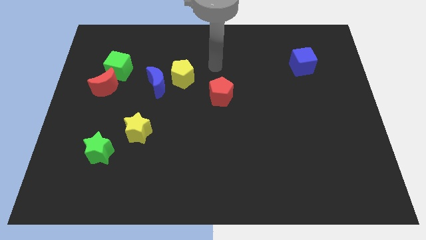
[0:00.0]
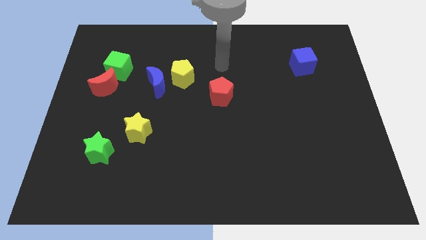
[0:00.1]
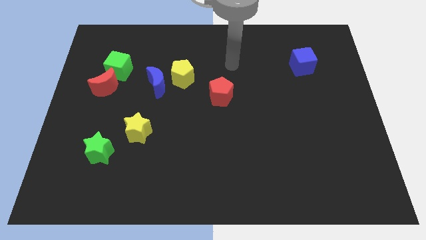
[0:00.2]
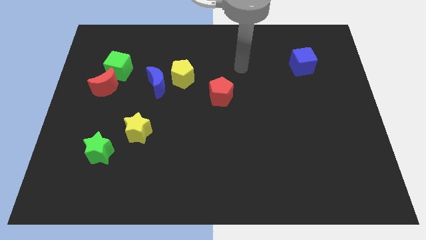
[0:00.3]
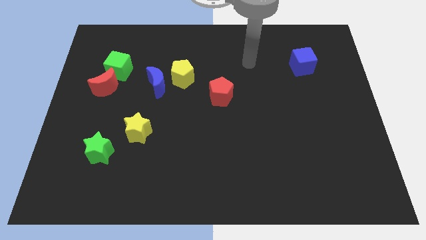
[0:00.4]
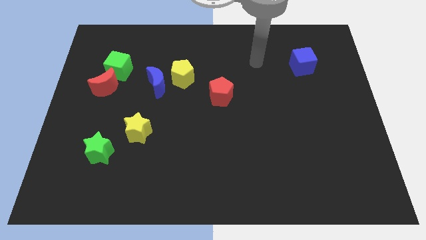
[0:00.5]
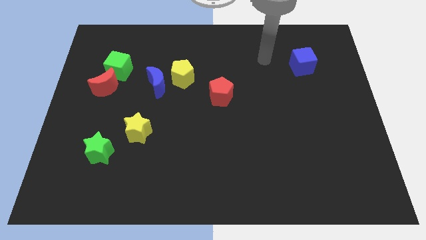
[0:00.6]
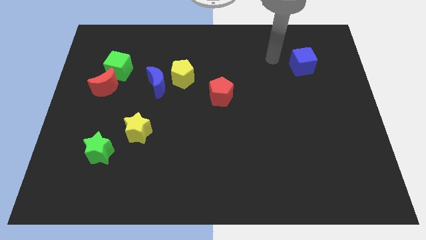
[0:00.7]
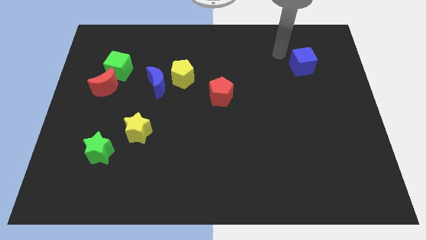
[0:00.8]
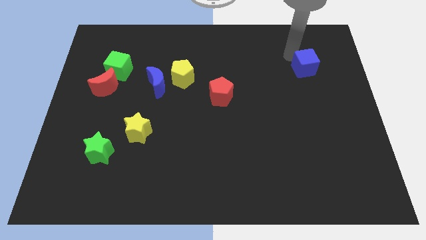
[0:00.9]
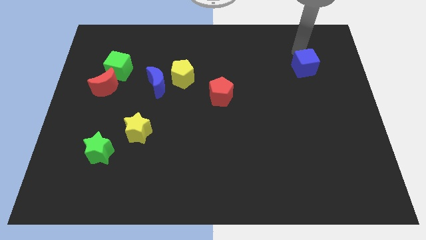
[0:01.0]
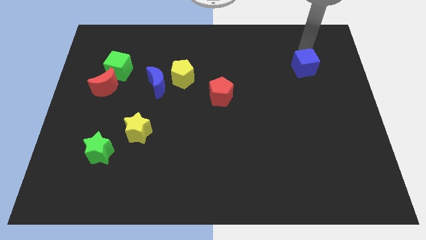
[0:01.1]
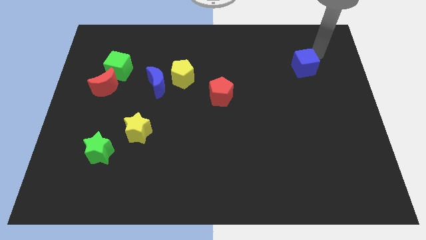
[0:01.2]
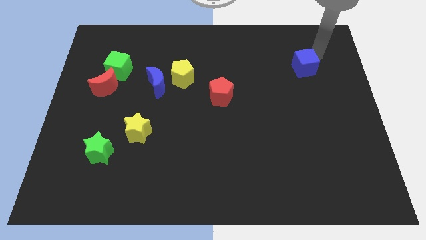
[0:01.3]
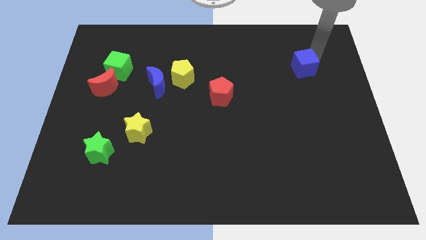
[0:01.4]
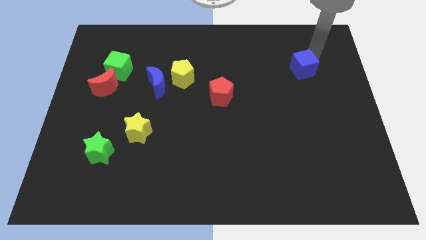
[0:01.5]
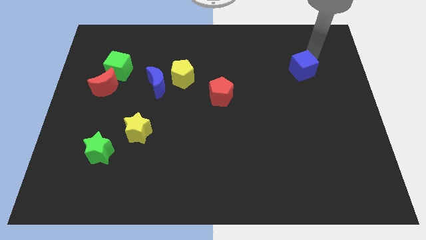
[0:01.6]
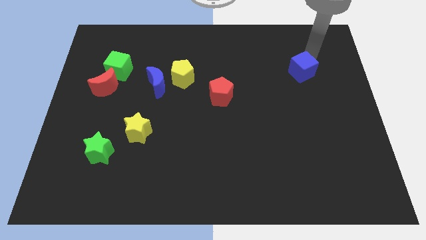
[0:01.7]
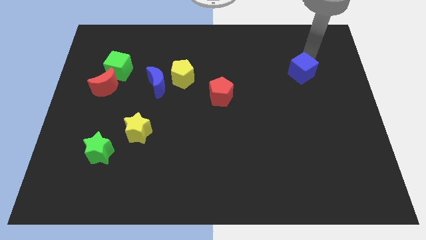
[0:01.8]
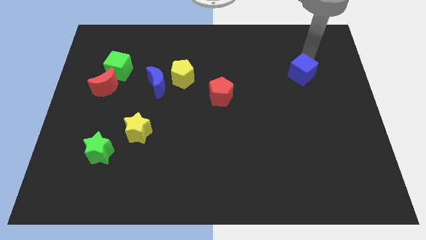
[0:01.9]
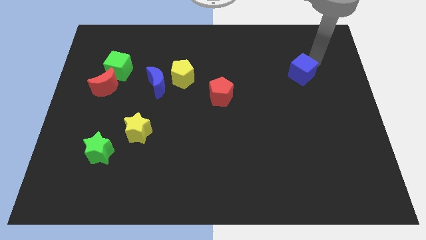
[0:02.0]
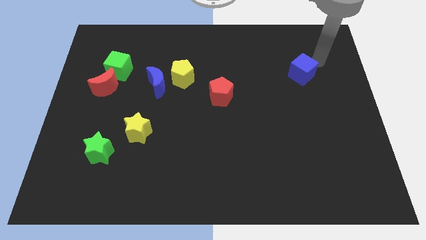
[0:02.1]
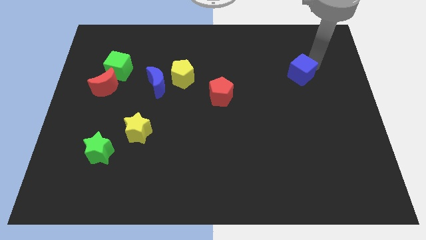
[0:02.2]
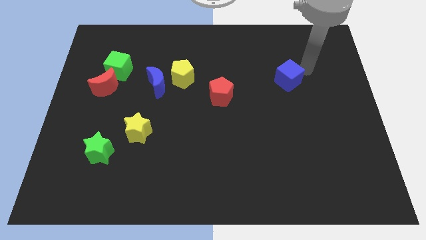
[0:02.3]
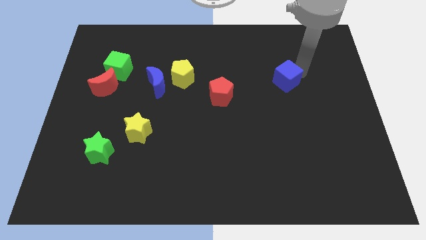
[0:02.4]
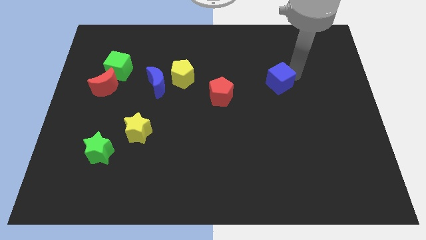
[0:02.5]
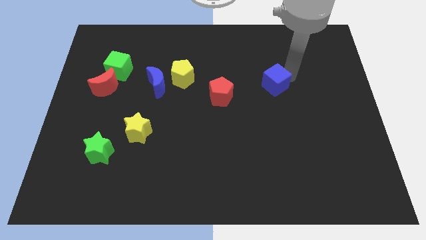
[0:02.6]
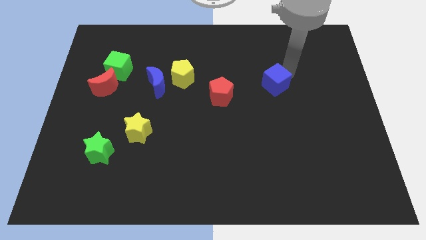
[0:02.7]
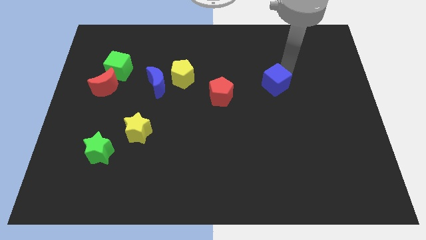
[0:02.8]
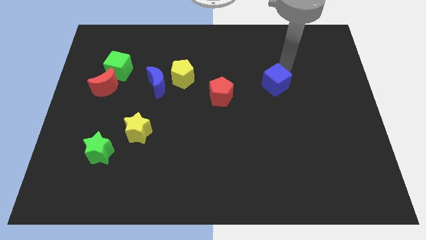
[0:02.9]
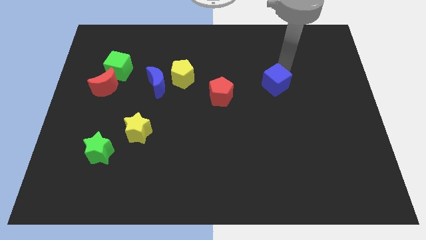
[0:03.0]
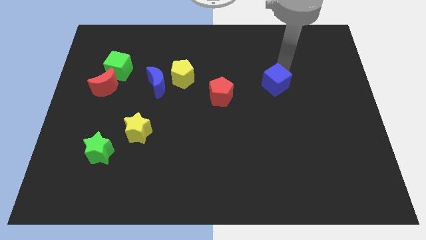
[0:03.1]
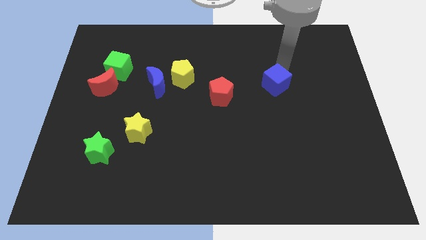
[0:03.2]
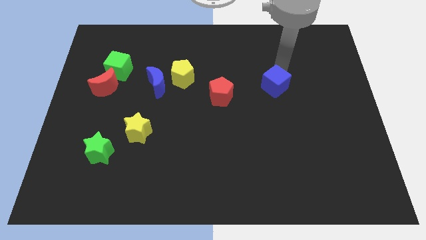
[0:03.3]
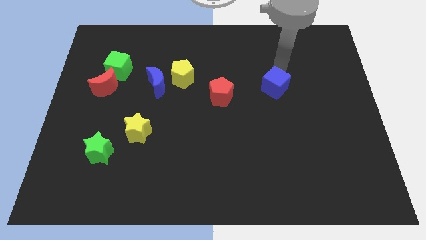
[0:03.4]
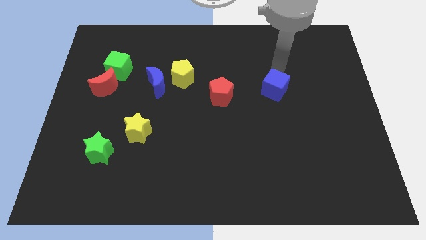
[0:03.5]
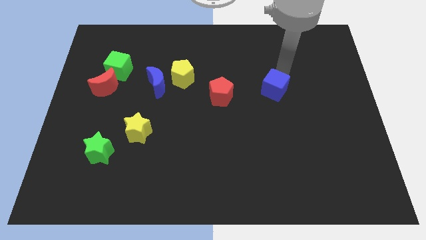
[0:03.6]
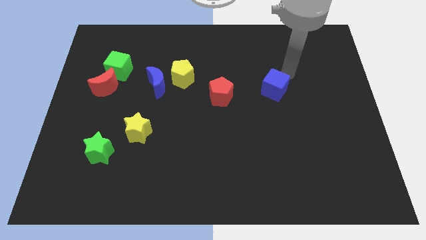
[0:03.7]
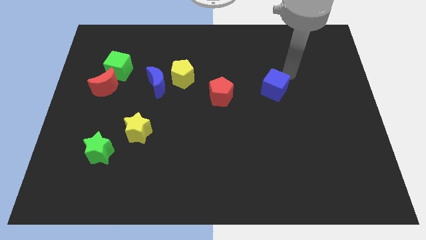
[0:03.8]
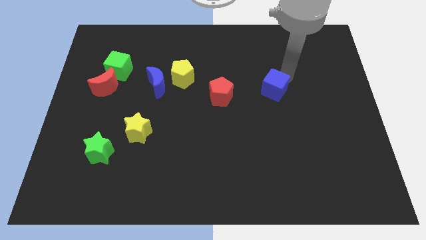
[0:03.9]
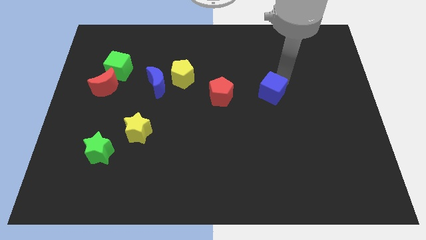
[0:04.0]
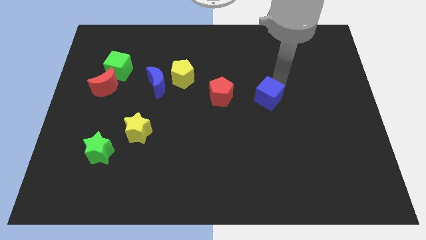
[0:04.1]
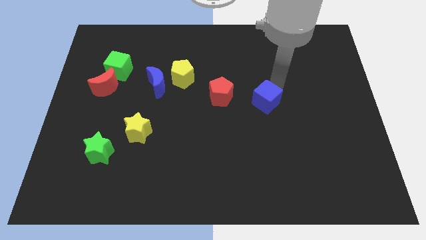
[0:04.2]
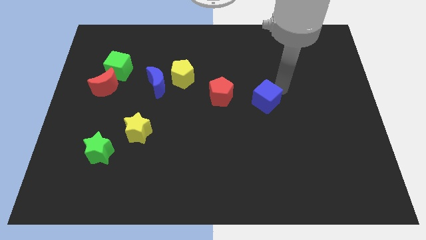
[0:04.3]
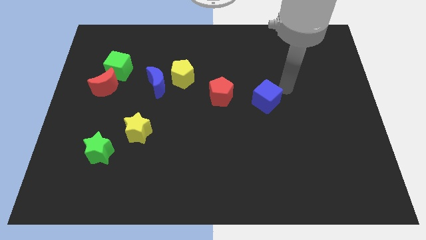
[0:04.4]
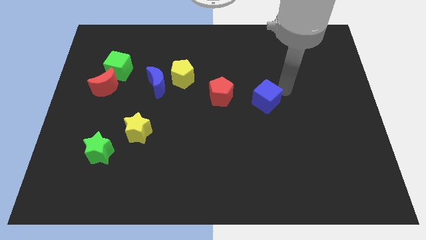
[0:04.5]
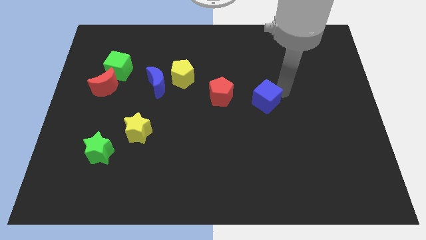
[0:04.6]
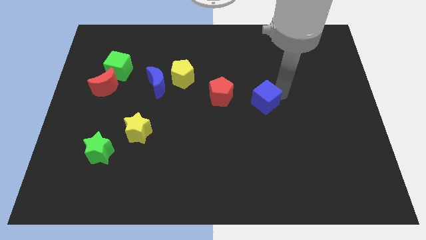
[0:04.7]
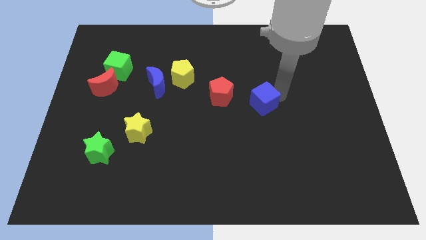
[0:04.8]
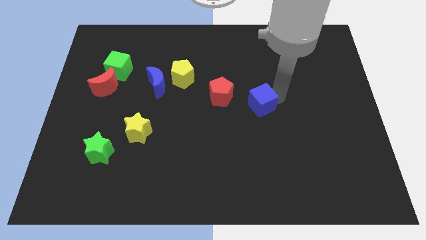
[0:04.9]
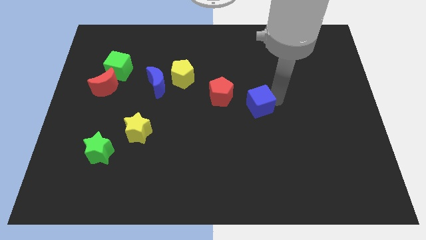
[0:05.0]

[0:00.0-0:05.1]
move the blue cube to the bottom right of the red pentagon

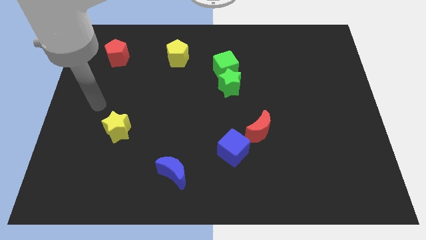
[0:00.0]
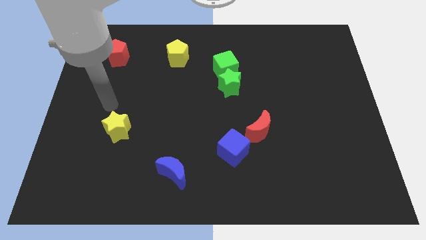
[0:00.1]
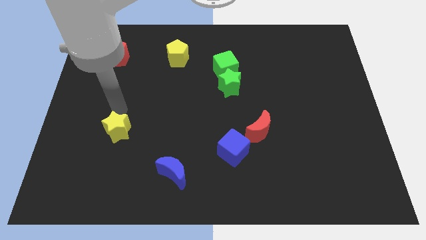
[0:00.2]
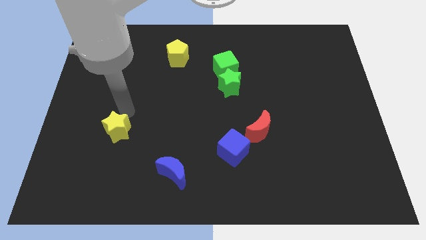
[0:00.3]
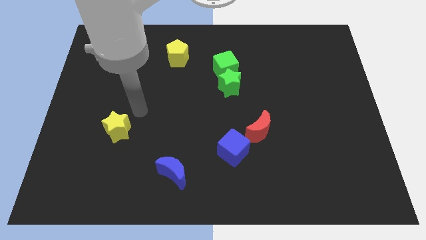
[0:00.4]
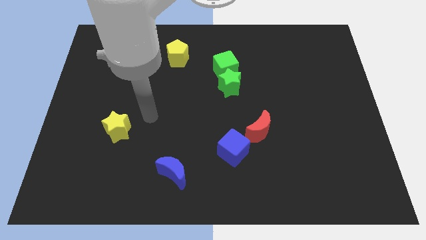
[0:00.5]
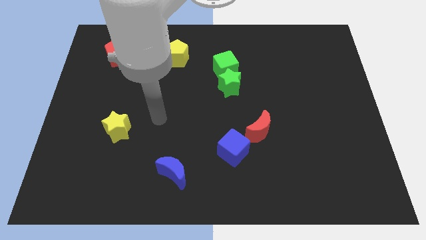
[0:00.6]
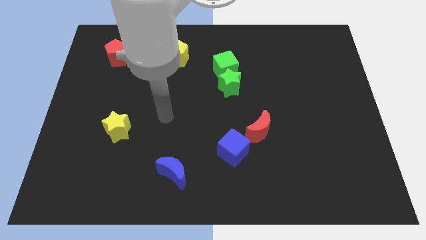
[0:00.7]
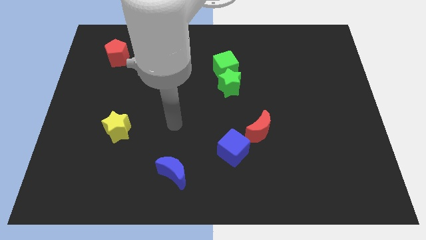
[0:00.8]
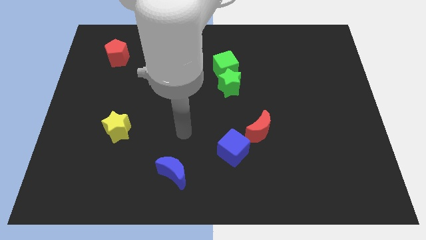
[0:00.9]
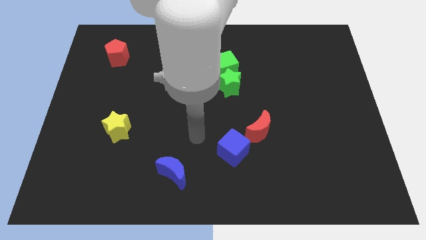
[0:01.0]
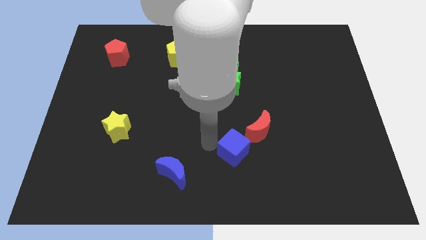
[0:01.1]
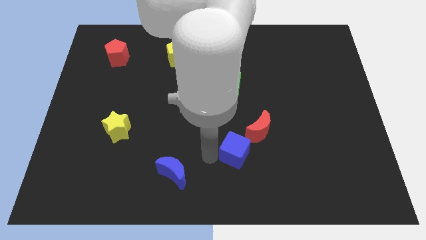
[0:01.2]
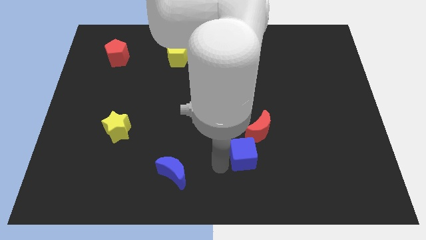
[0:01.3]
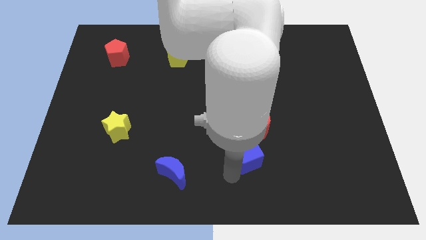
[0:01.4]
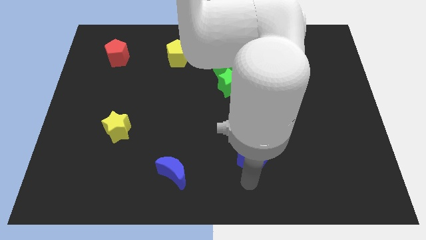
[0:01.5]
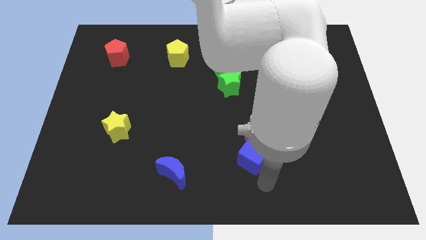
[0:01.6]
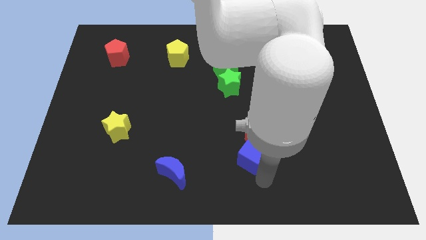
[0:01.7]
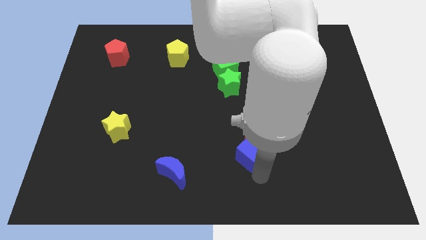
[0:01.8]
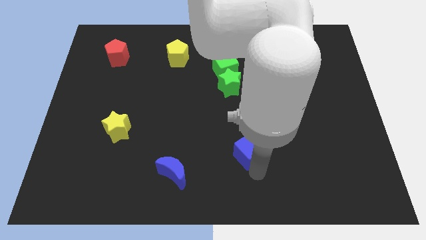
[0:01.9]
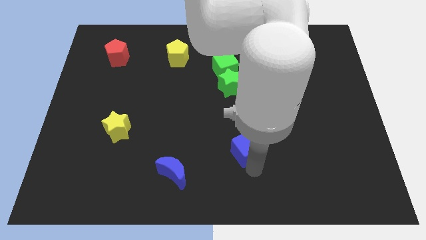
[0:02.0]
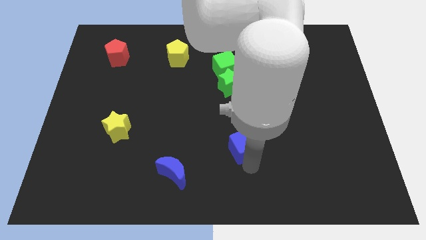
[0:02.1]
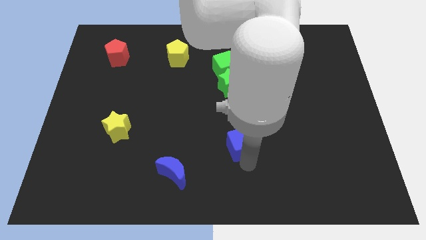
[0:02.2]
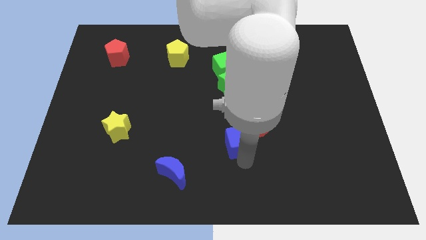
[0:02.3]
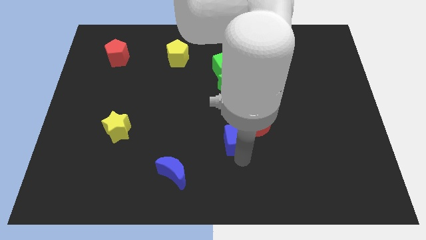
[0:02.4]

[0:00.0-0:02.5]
put the blue cube to the bottom of the green star
